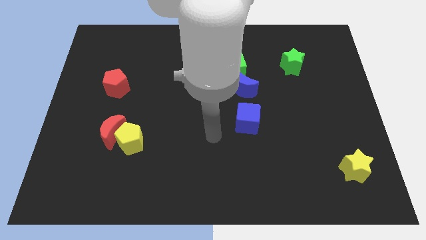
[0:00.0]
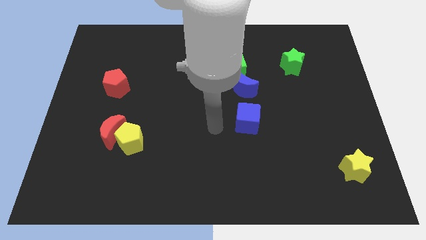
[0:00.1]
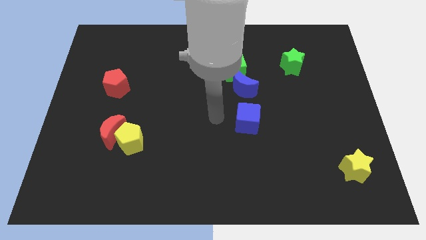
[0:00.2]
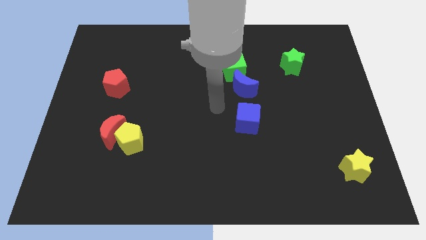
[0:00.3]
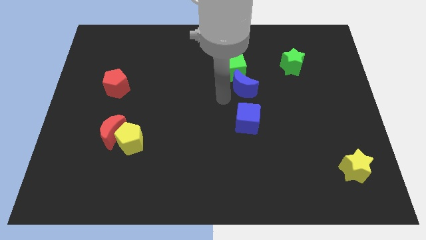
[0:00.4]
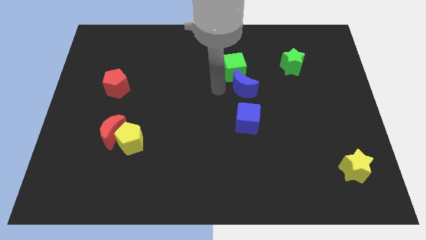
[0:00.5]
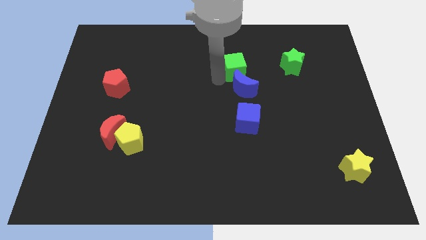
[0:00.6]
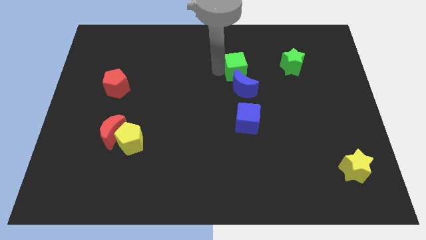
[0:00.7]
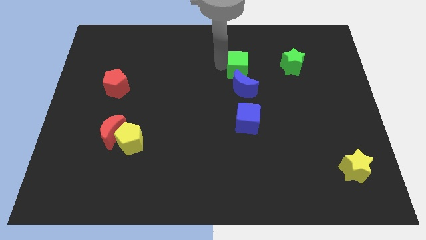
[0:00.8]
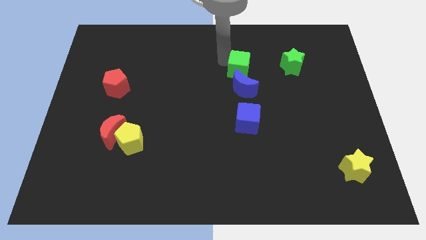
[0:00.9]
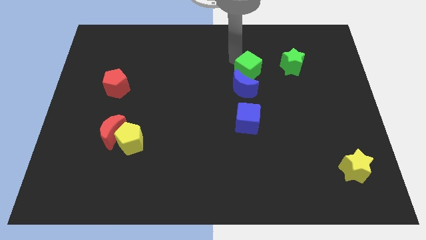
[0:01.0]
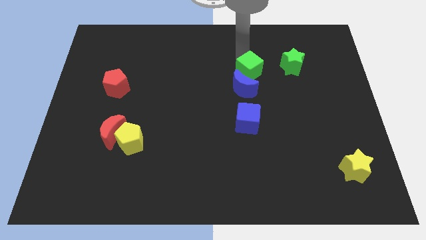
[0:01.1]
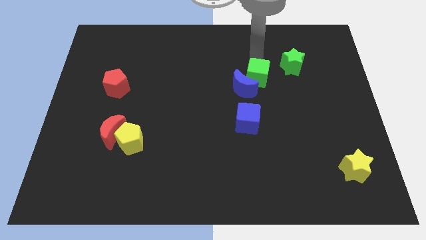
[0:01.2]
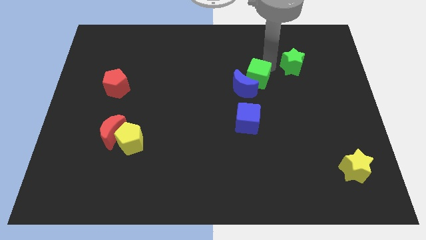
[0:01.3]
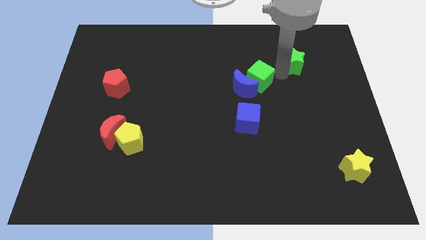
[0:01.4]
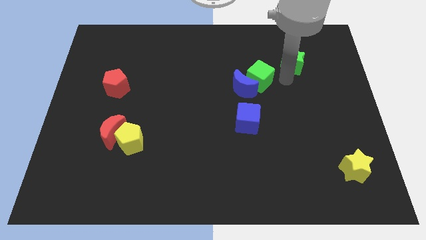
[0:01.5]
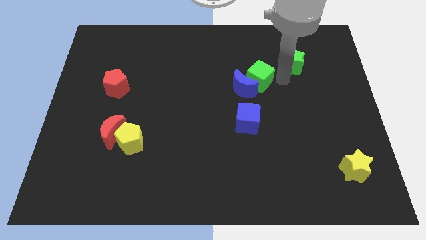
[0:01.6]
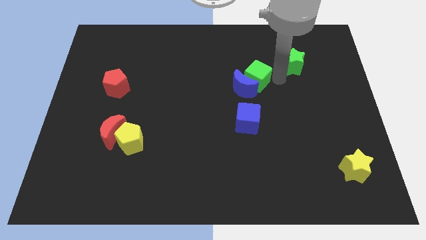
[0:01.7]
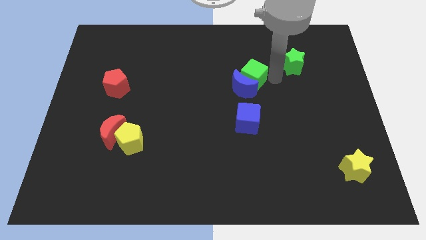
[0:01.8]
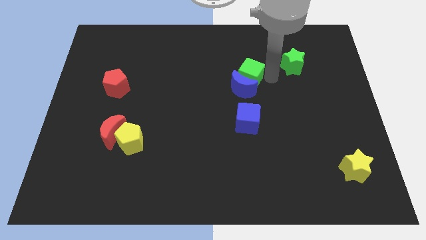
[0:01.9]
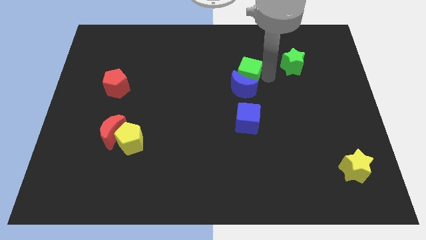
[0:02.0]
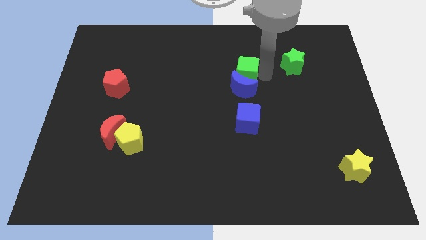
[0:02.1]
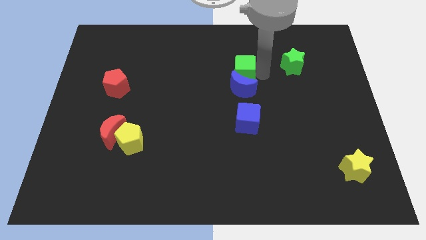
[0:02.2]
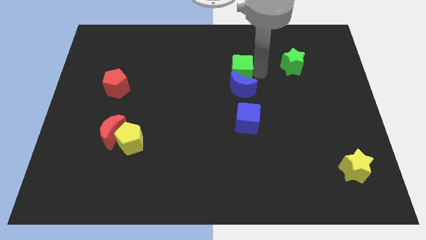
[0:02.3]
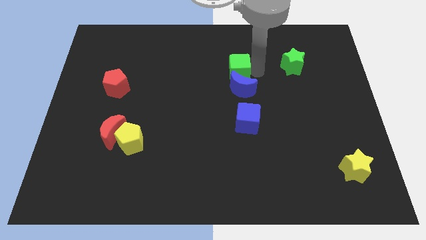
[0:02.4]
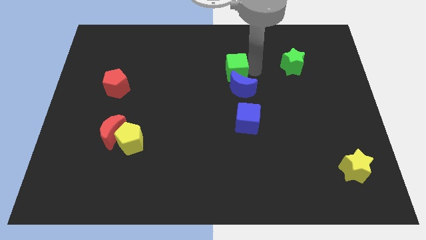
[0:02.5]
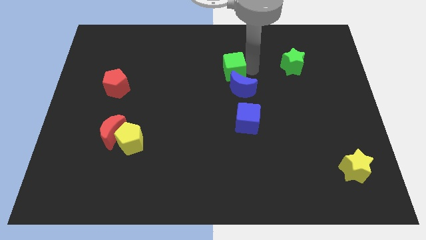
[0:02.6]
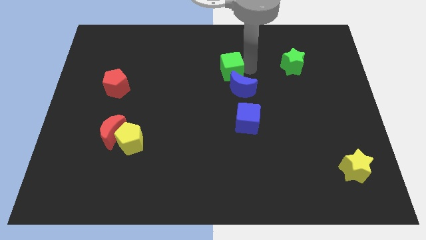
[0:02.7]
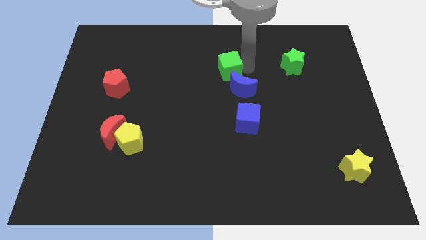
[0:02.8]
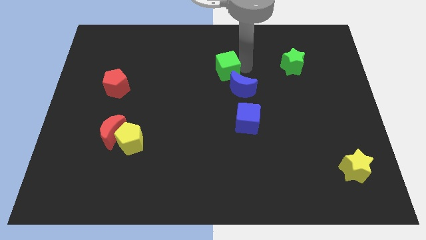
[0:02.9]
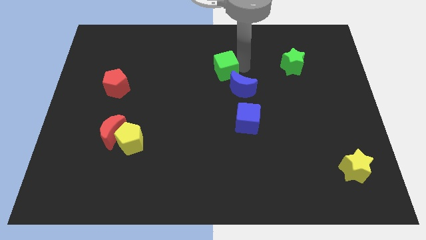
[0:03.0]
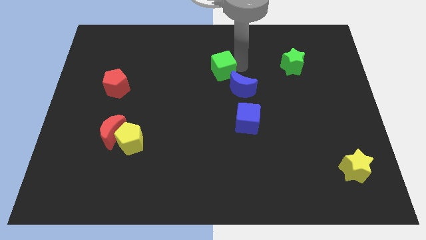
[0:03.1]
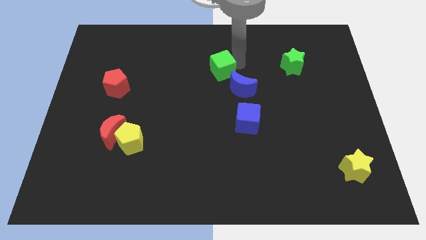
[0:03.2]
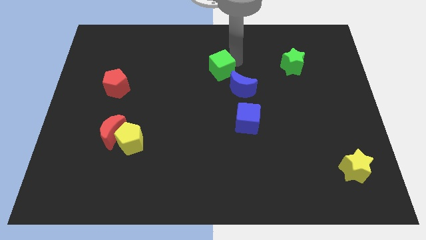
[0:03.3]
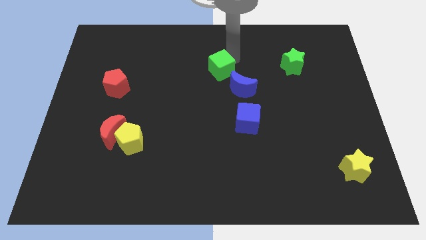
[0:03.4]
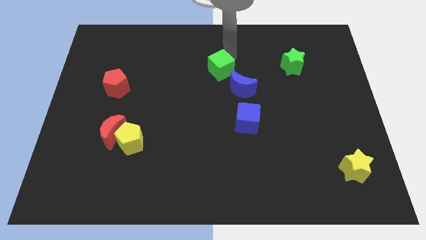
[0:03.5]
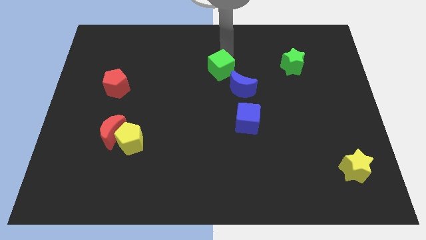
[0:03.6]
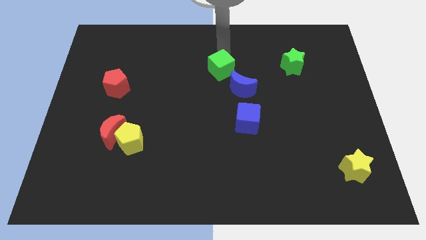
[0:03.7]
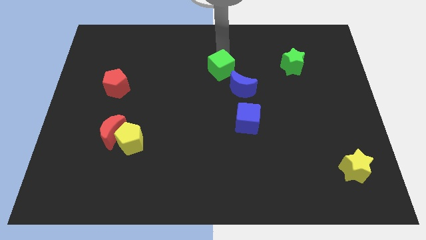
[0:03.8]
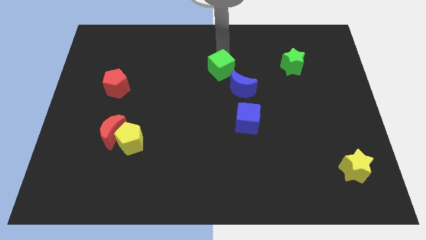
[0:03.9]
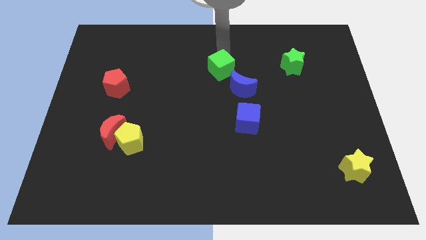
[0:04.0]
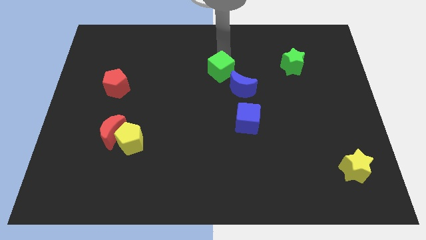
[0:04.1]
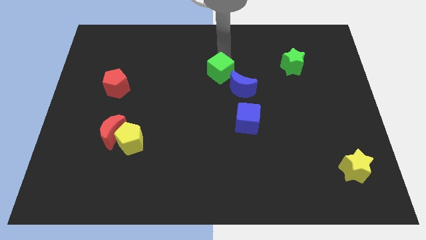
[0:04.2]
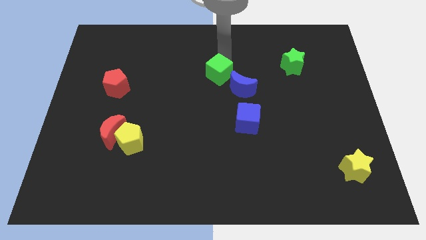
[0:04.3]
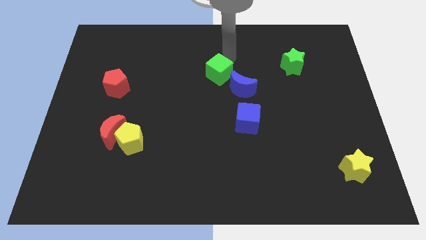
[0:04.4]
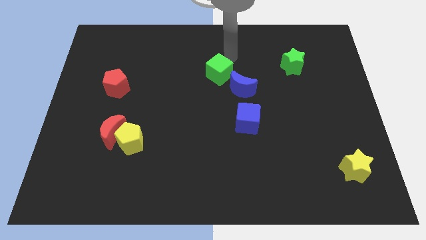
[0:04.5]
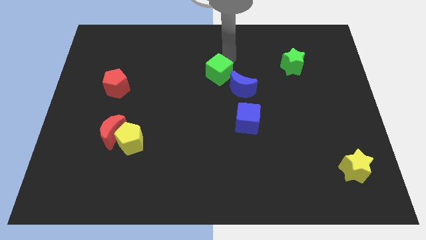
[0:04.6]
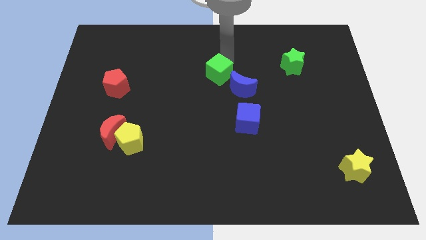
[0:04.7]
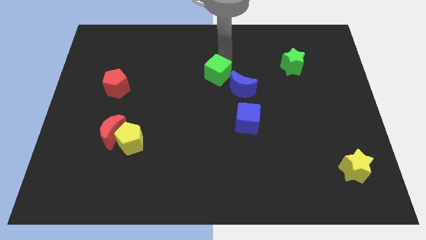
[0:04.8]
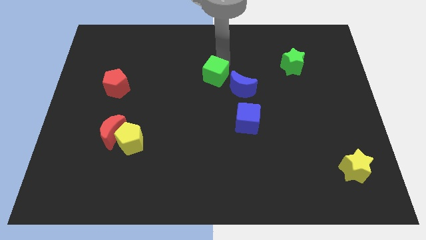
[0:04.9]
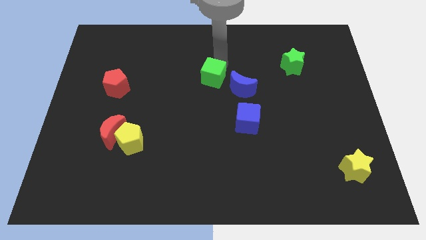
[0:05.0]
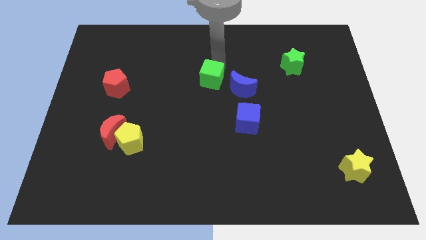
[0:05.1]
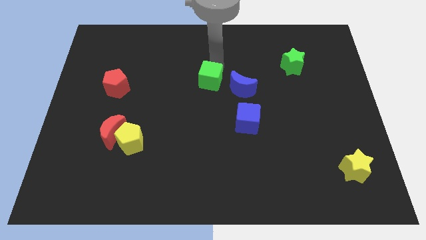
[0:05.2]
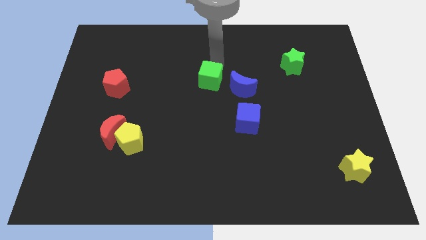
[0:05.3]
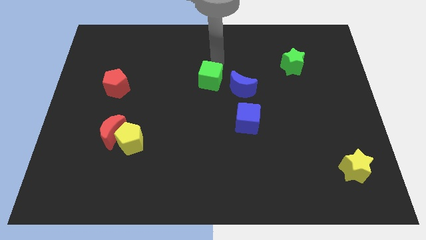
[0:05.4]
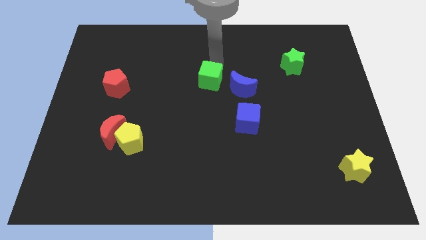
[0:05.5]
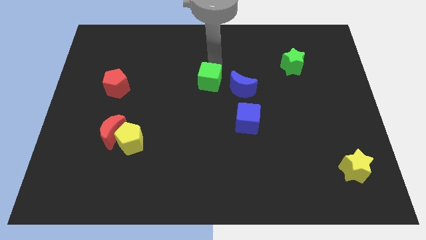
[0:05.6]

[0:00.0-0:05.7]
push the green cube a little downwards and to the left diagonally

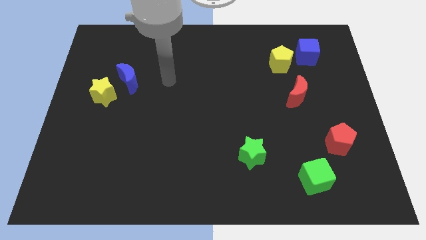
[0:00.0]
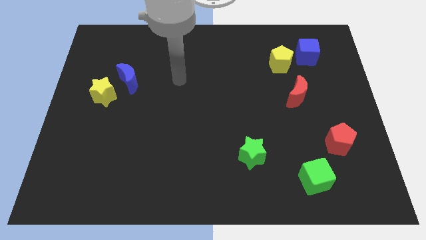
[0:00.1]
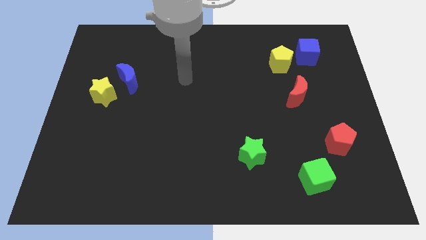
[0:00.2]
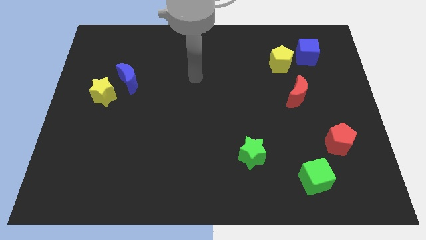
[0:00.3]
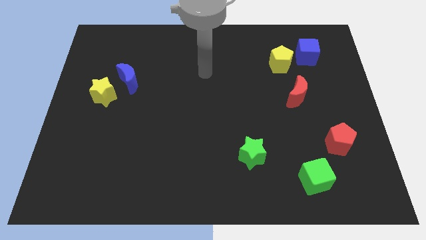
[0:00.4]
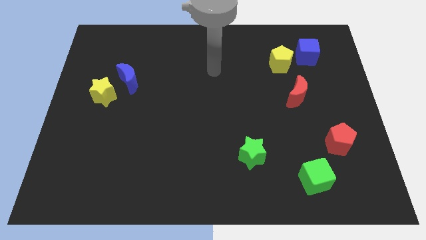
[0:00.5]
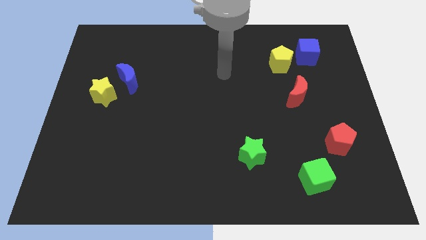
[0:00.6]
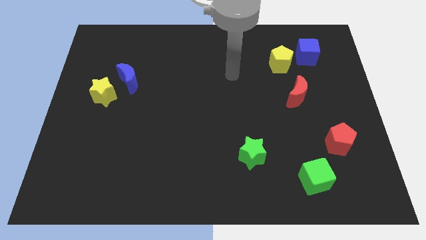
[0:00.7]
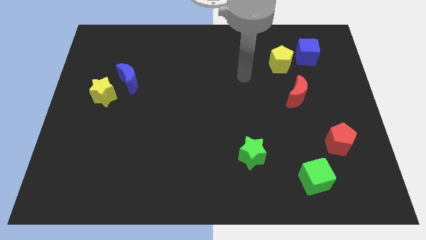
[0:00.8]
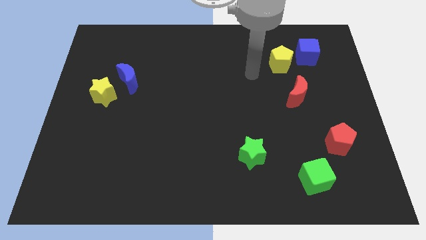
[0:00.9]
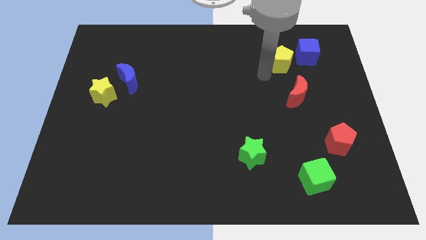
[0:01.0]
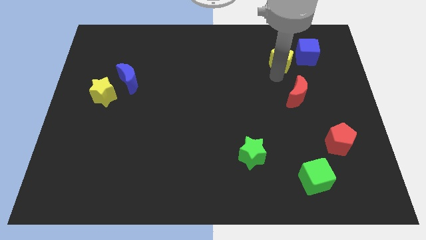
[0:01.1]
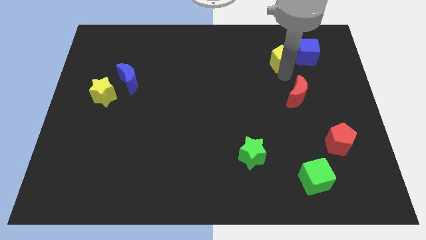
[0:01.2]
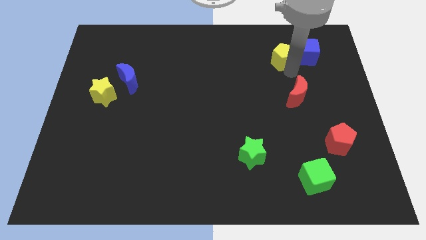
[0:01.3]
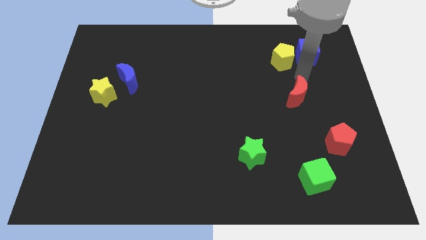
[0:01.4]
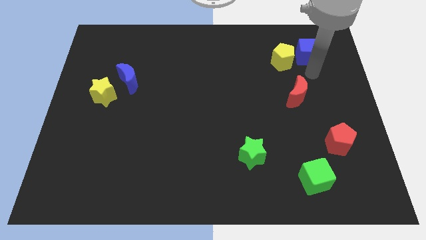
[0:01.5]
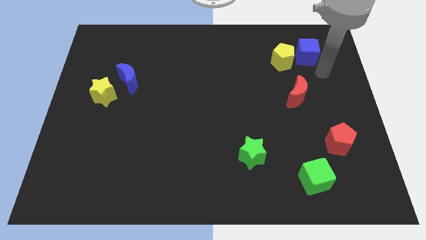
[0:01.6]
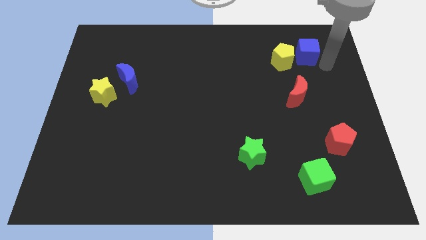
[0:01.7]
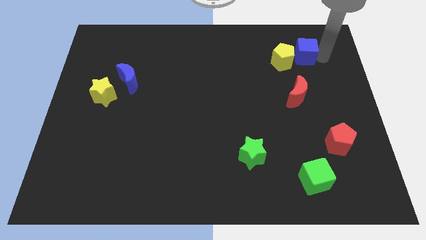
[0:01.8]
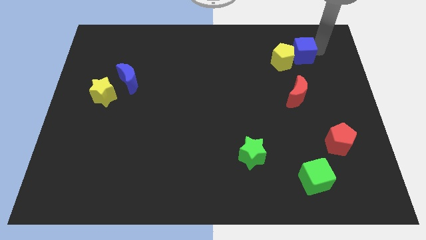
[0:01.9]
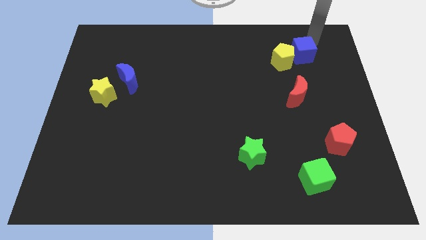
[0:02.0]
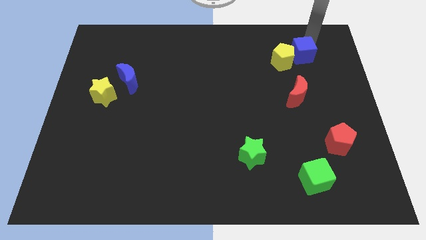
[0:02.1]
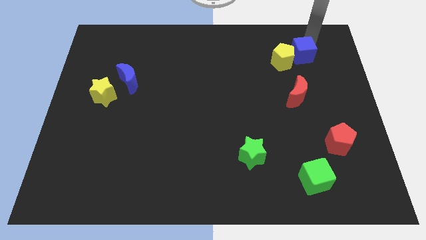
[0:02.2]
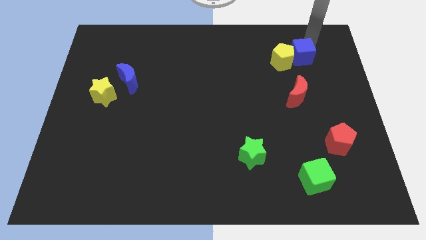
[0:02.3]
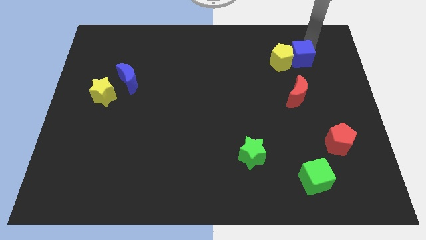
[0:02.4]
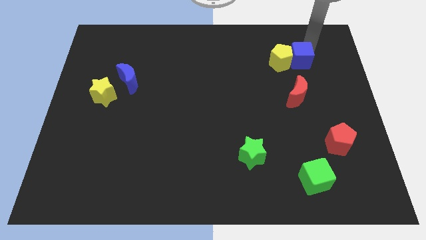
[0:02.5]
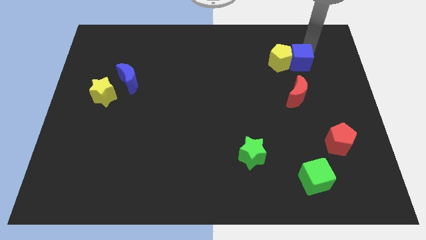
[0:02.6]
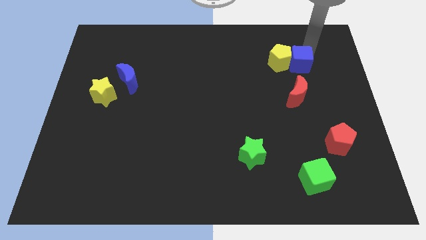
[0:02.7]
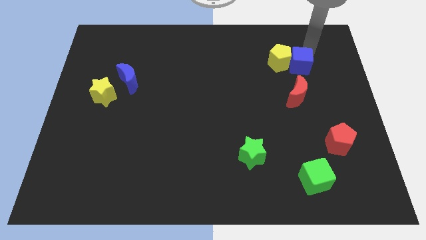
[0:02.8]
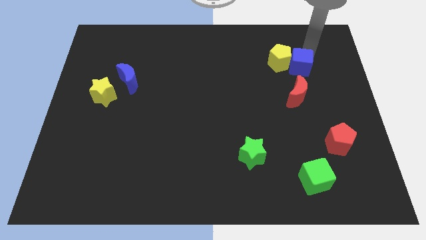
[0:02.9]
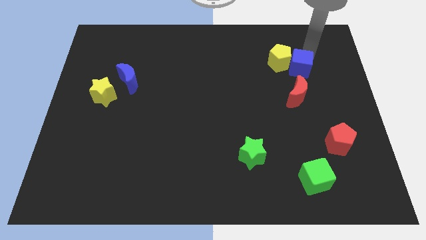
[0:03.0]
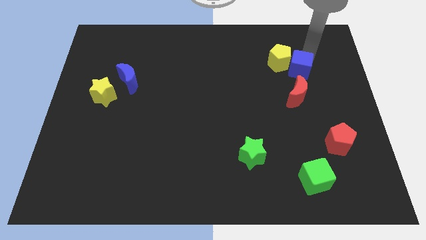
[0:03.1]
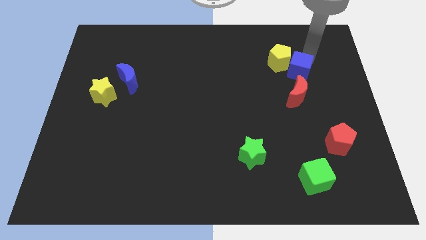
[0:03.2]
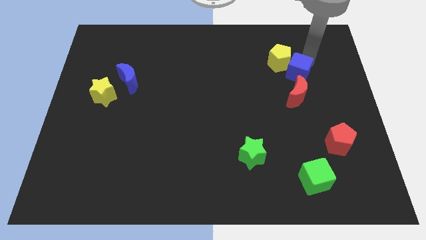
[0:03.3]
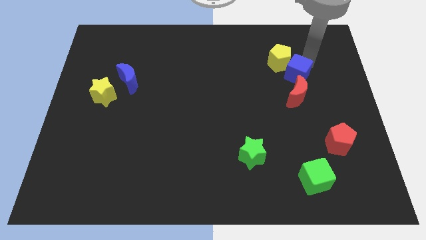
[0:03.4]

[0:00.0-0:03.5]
move the blue cube down and then to the left somewhat
